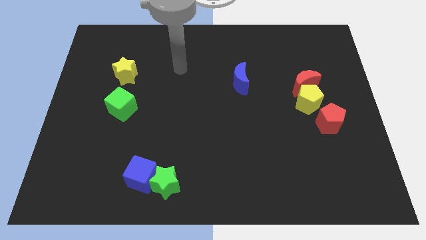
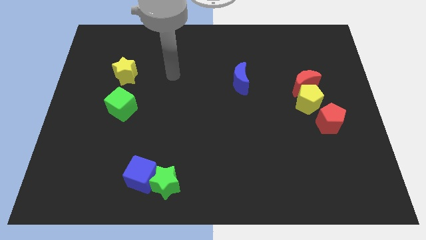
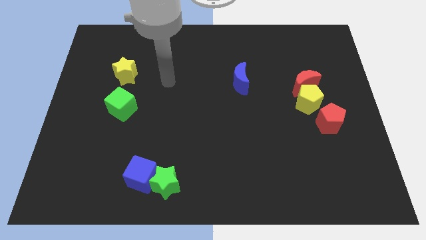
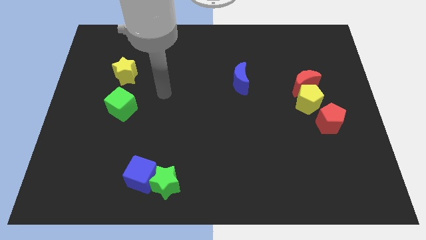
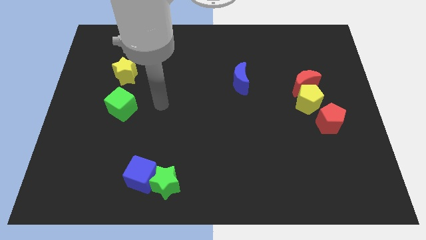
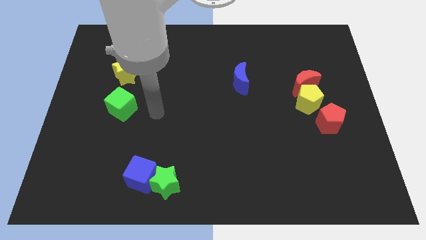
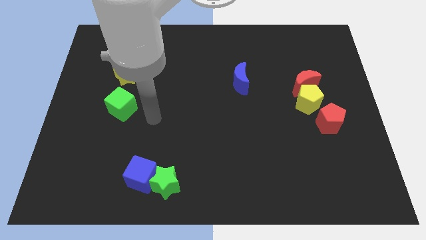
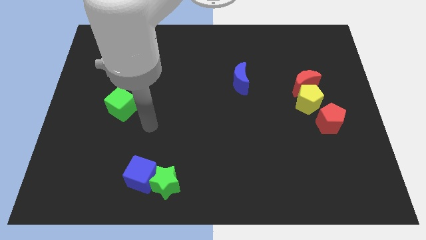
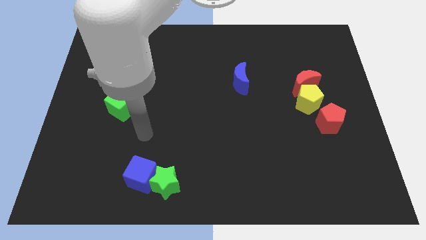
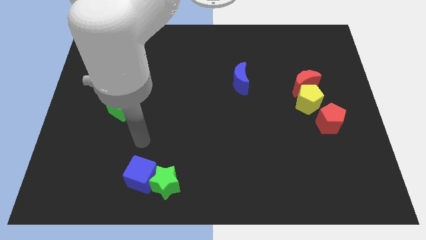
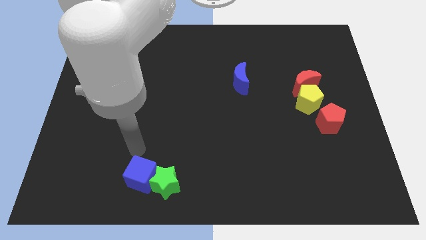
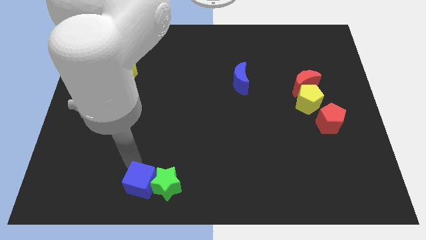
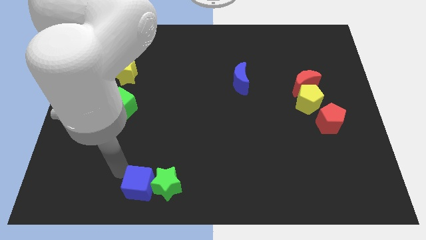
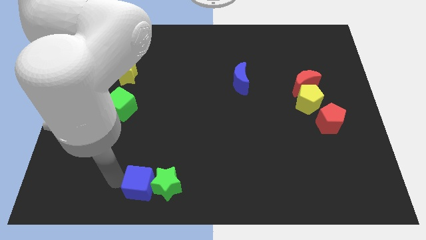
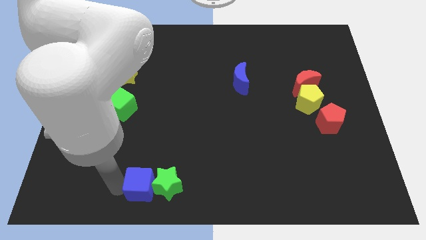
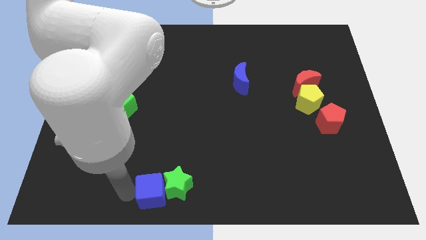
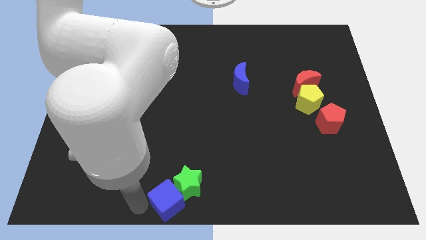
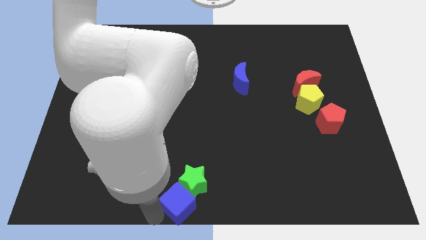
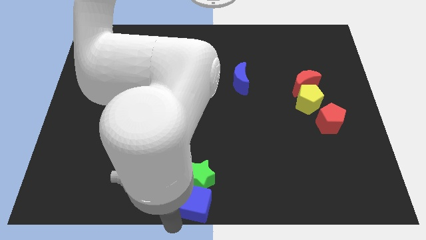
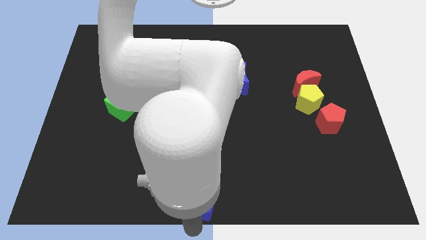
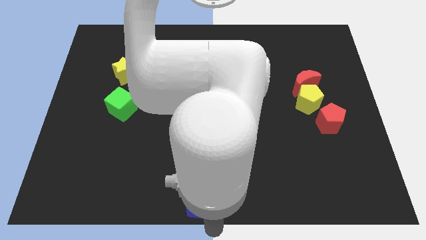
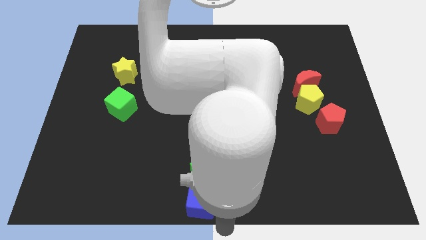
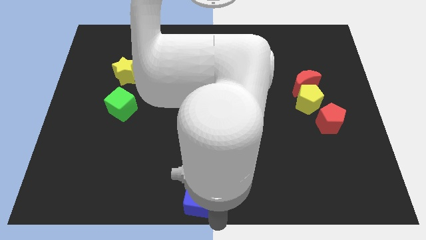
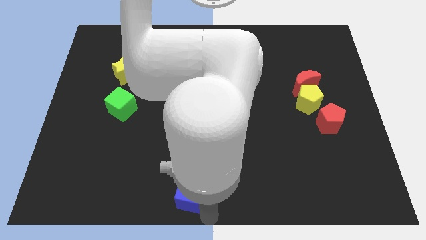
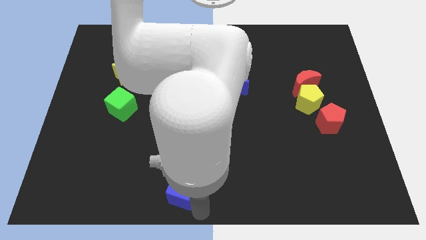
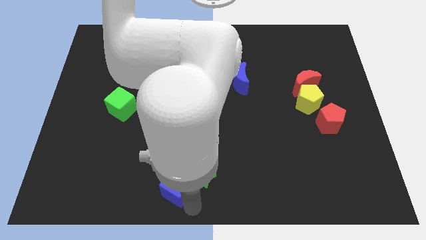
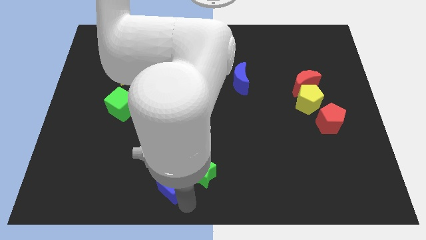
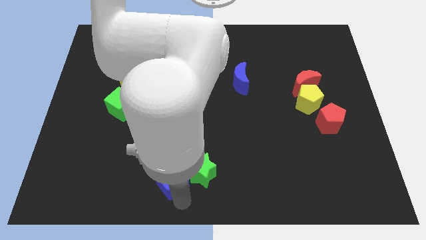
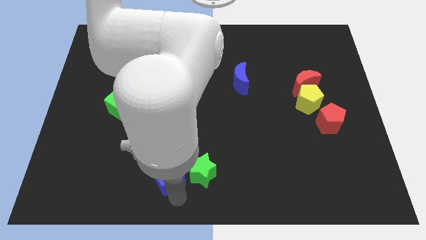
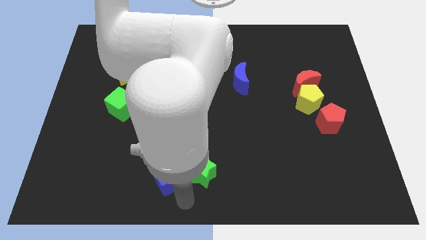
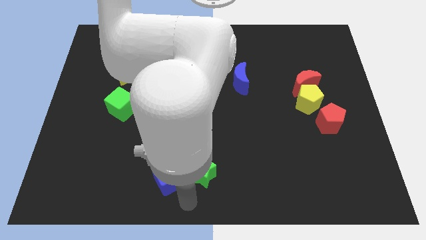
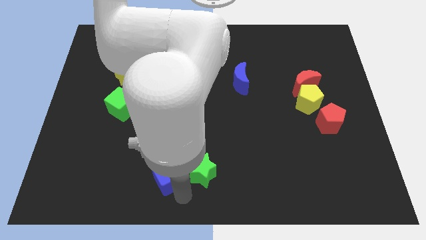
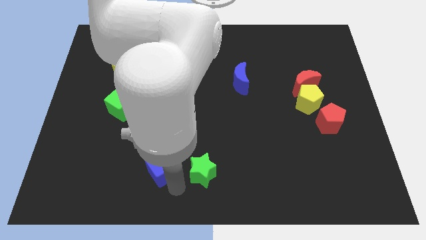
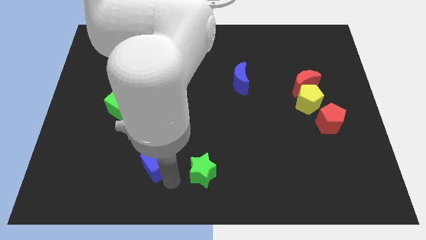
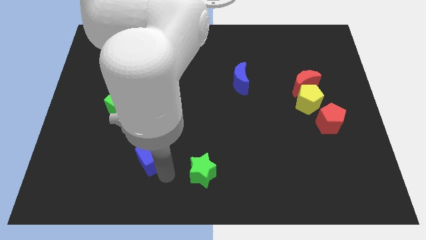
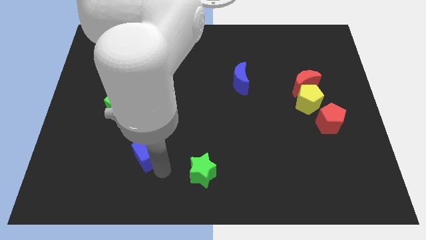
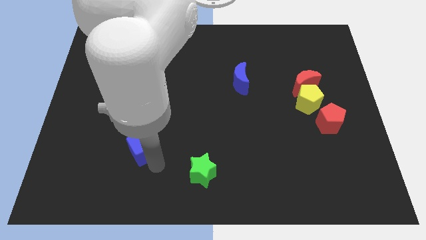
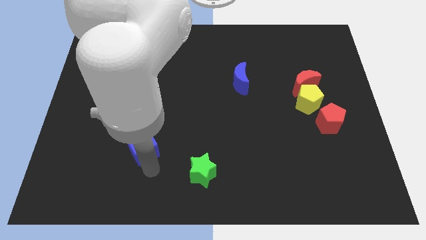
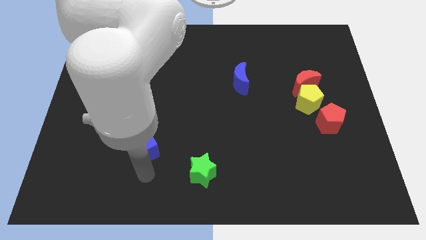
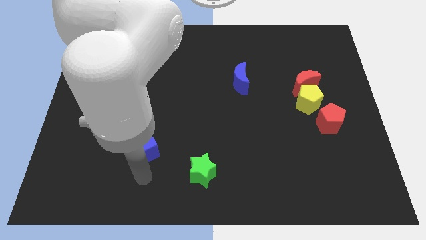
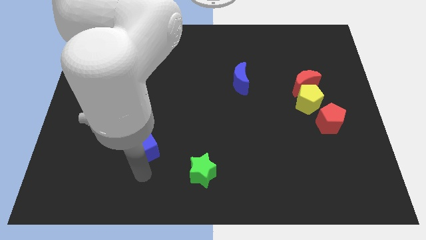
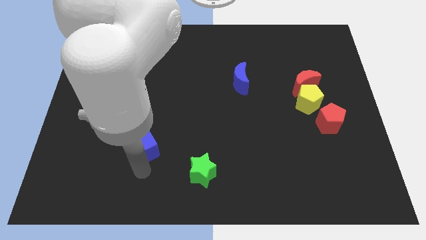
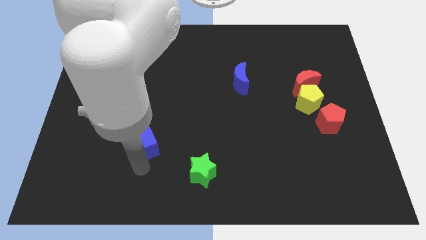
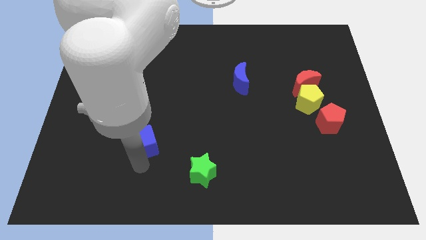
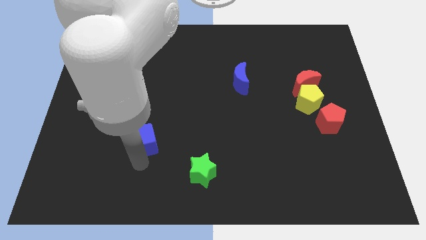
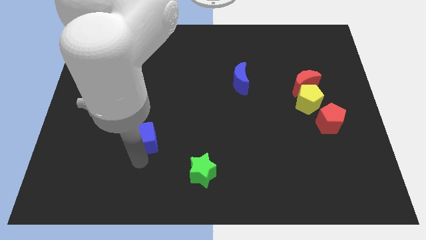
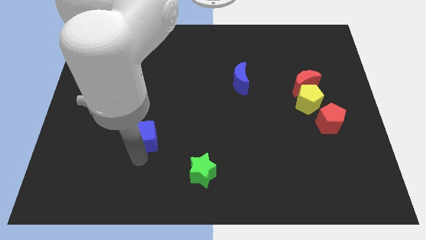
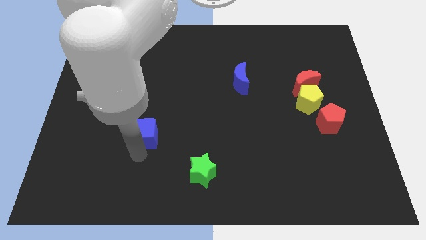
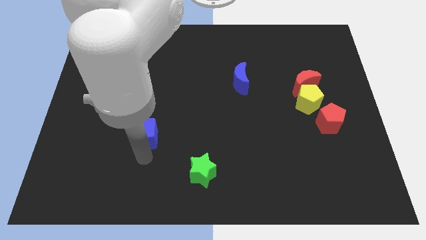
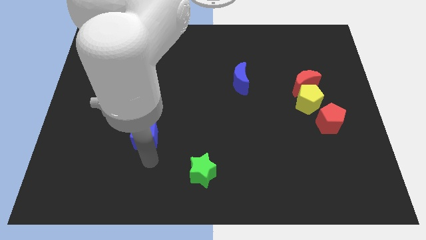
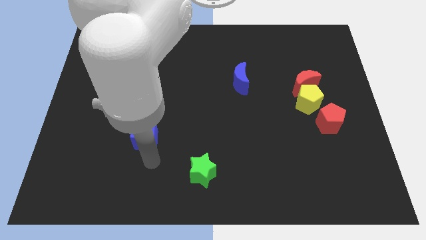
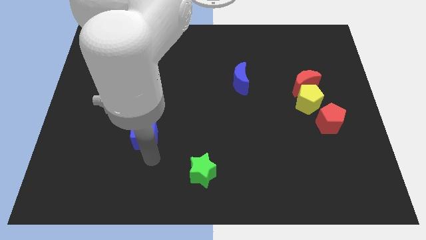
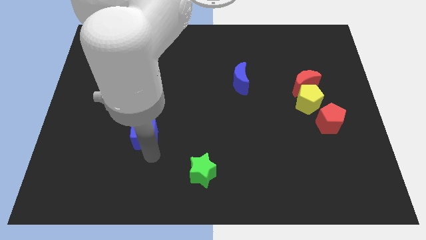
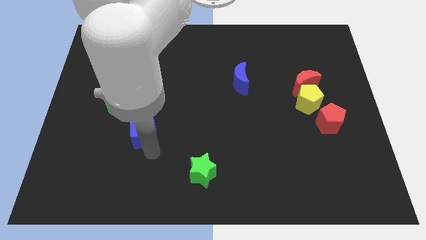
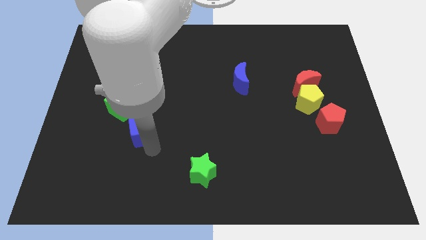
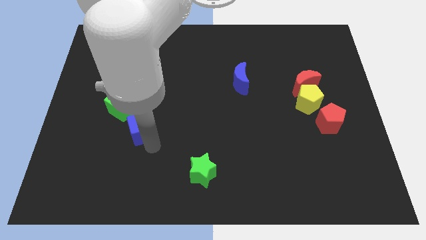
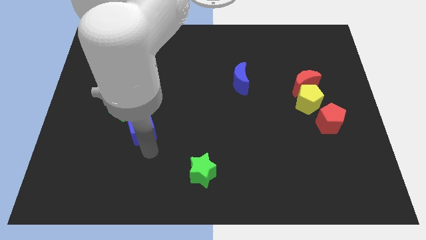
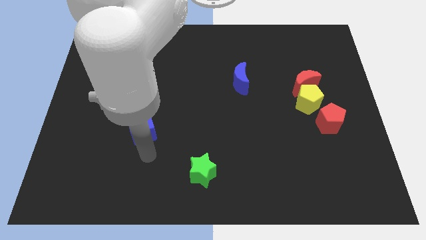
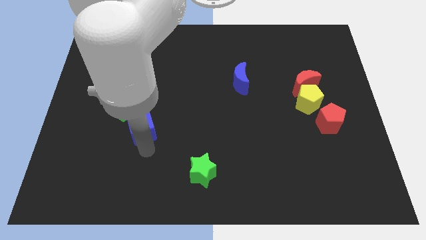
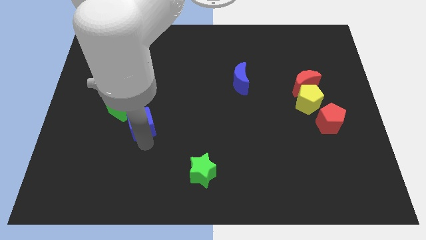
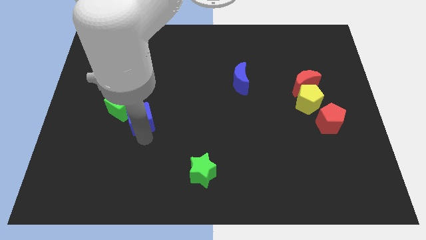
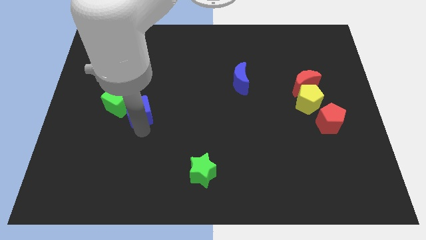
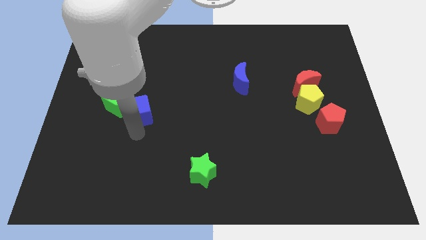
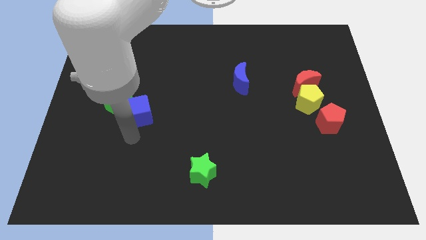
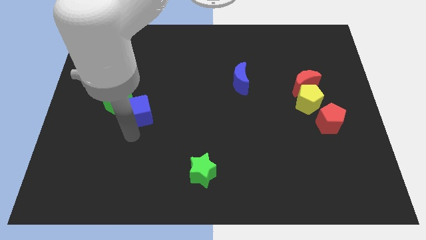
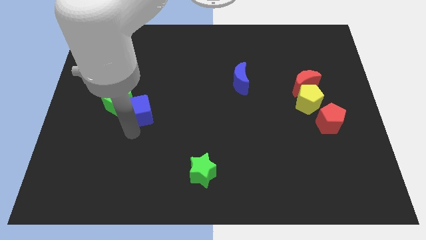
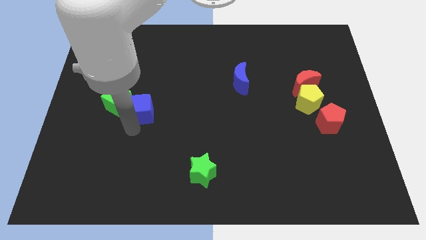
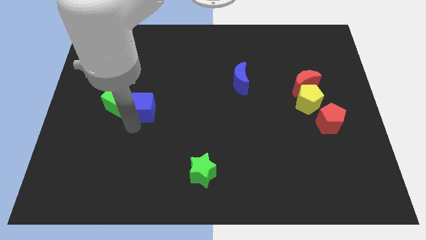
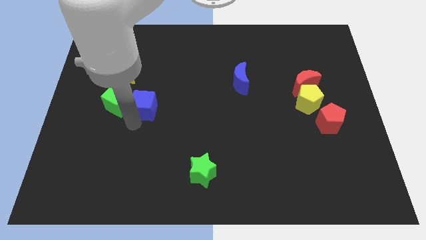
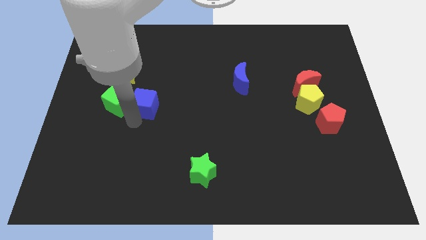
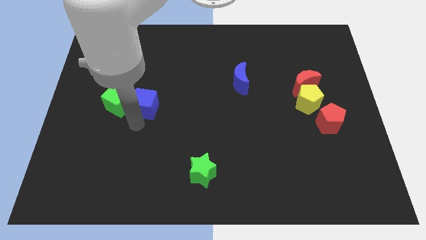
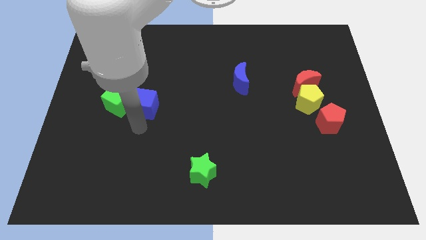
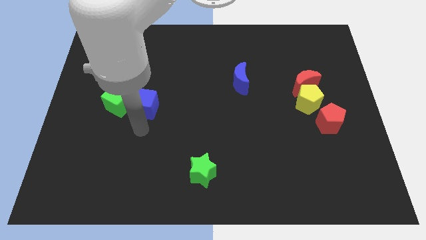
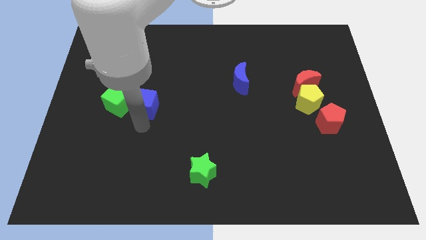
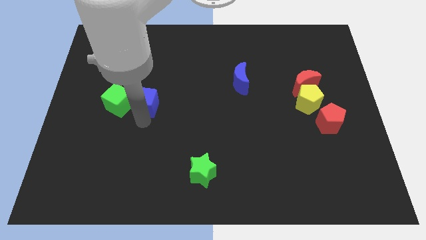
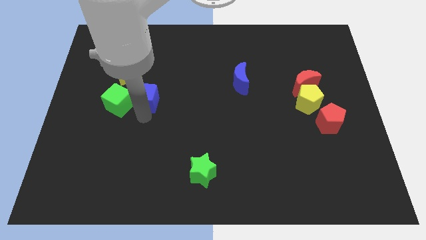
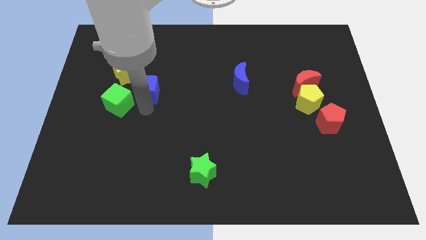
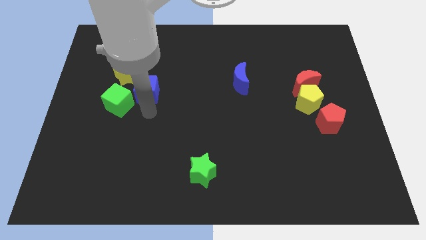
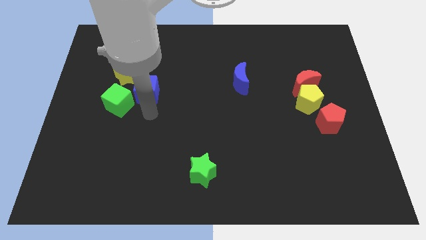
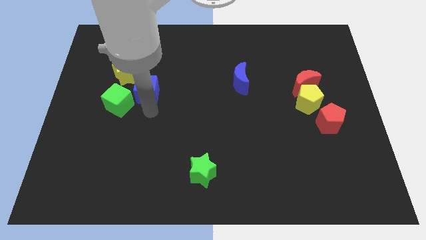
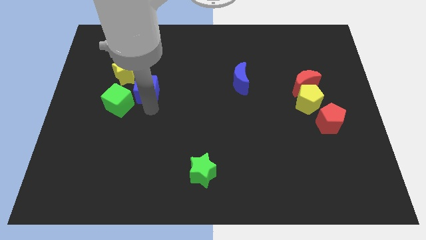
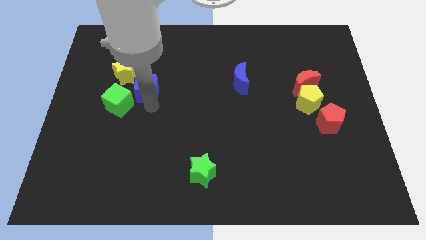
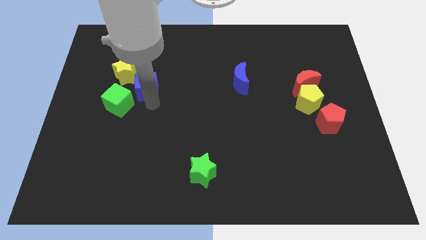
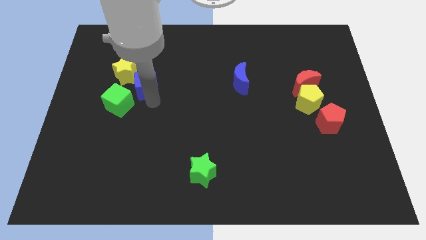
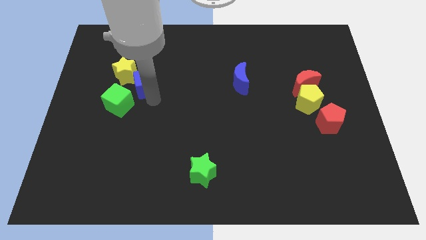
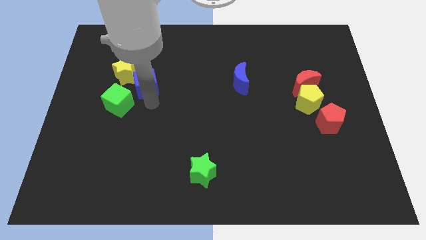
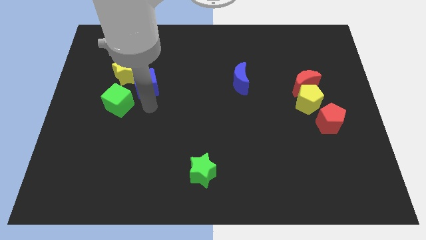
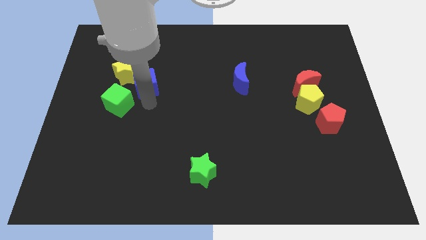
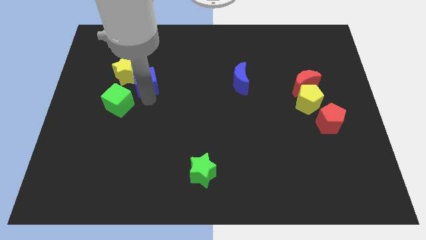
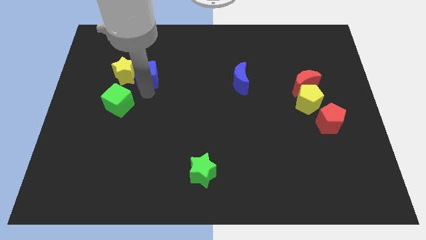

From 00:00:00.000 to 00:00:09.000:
slide the blue cube to the top right of the yellow star
